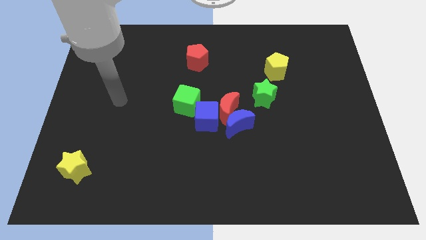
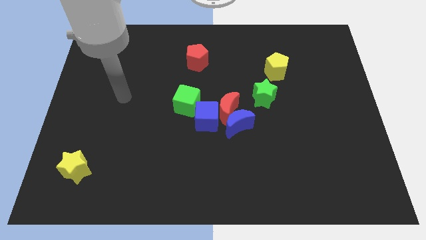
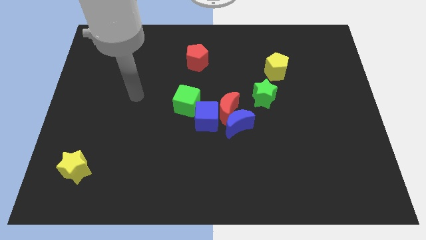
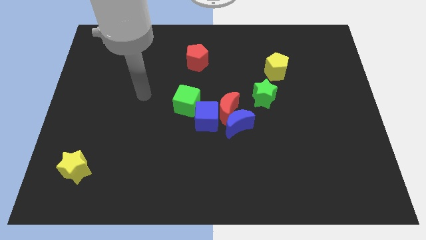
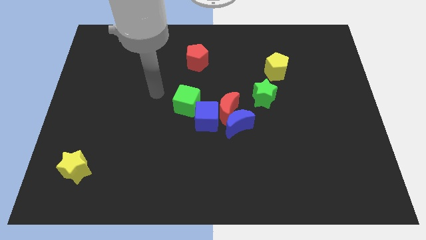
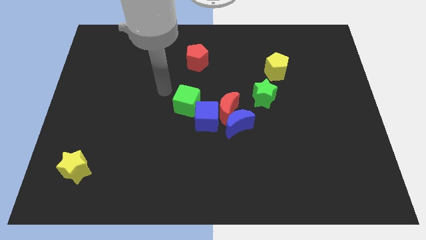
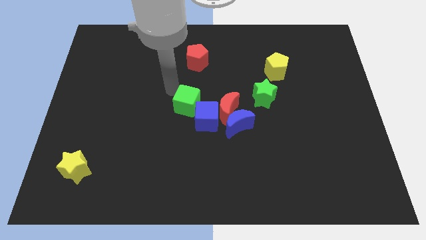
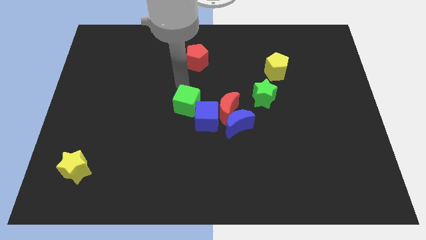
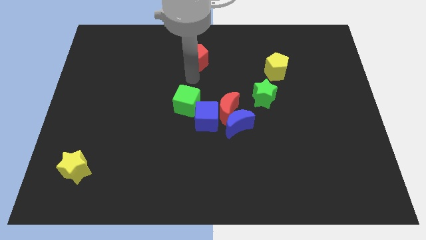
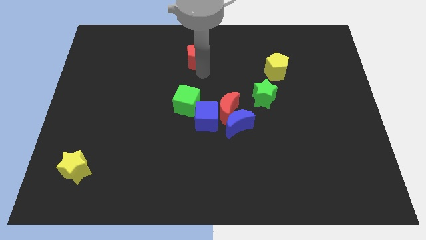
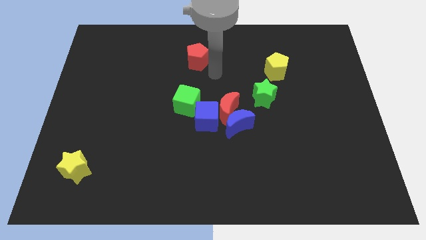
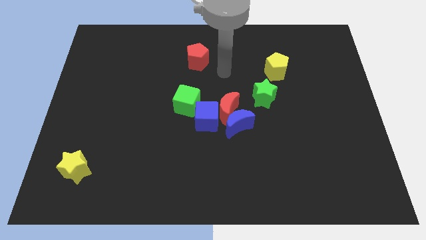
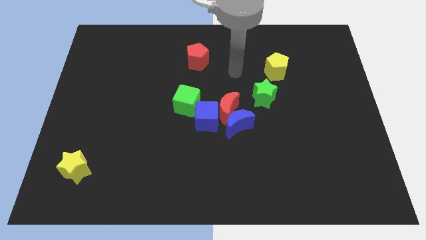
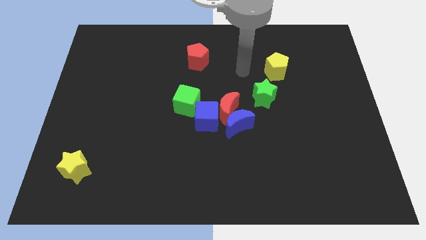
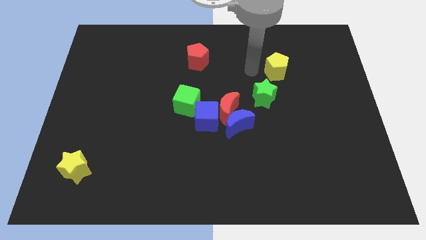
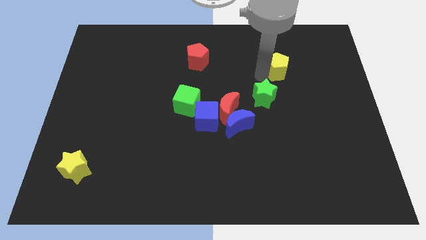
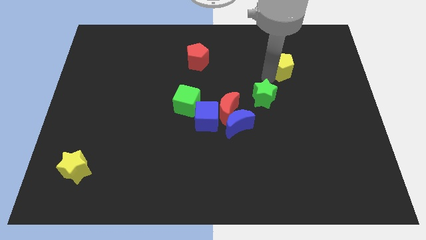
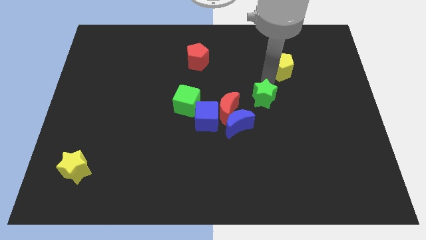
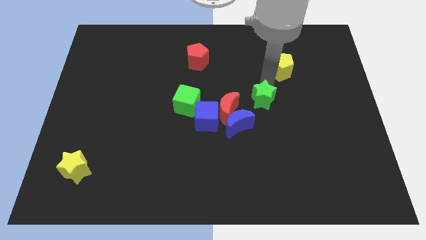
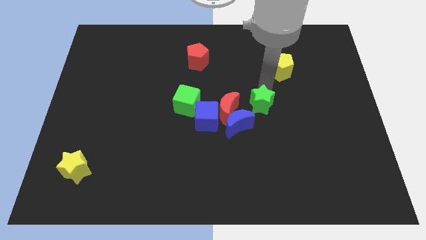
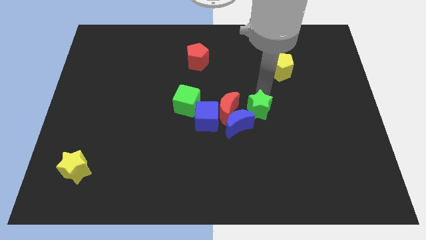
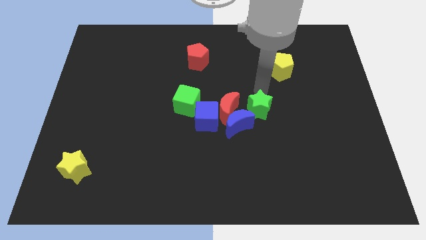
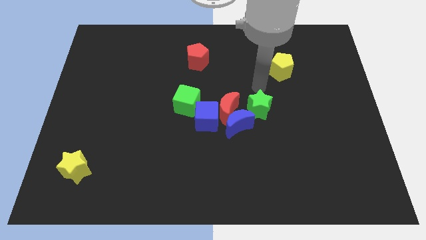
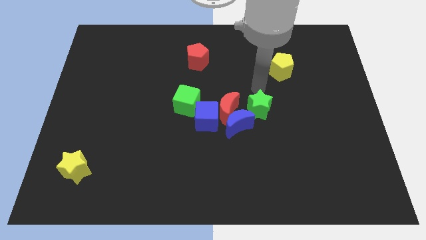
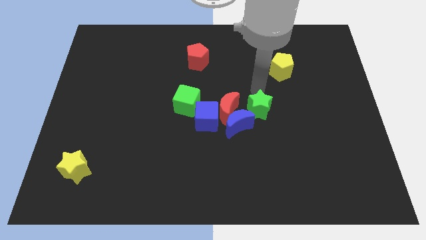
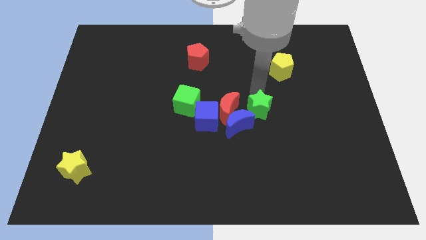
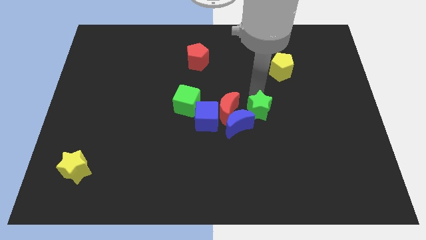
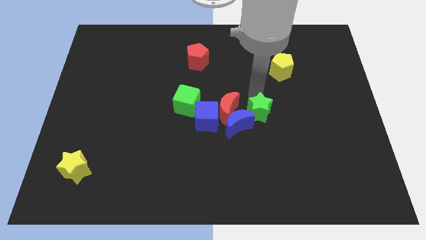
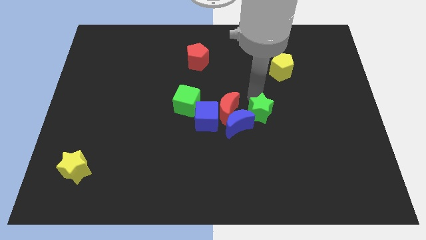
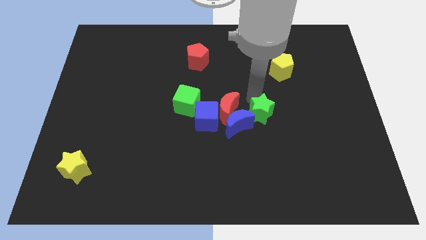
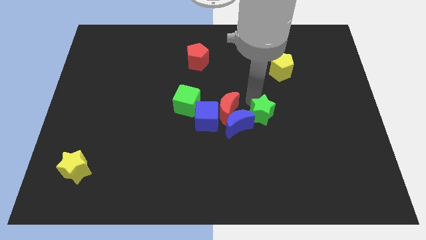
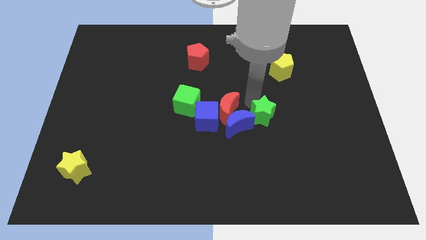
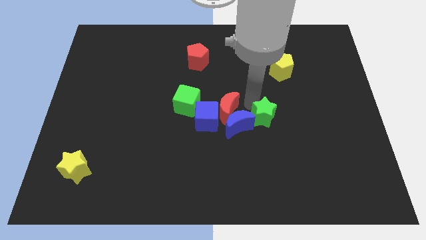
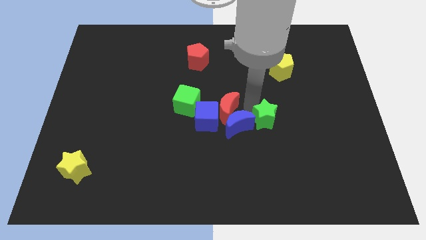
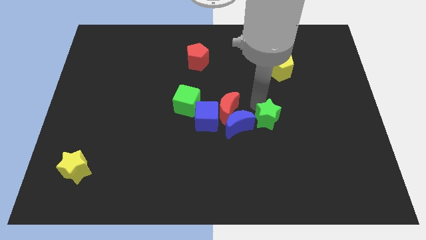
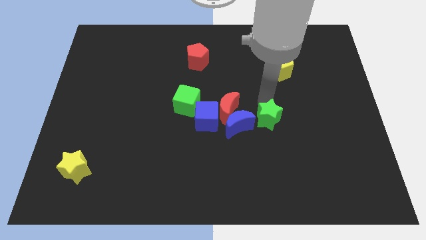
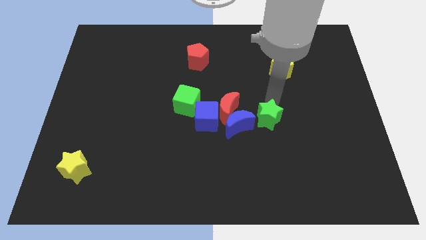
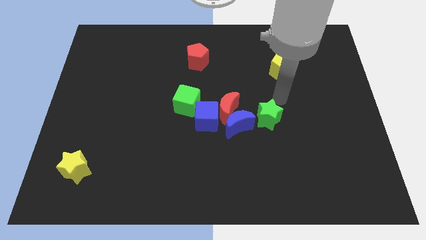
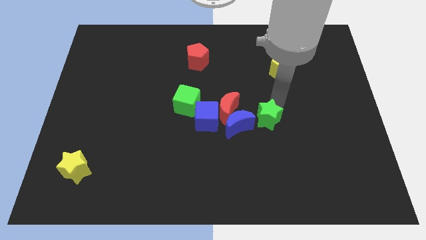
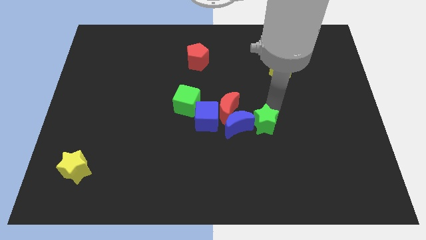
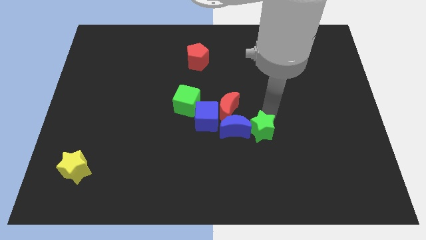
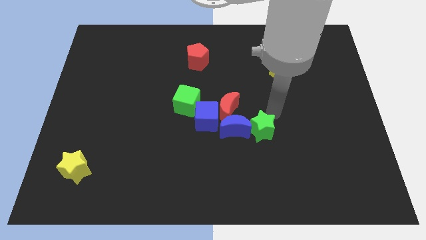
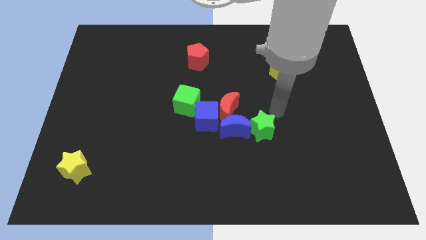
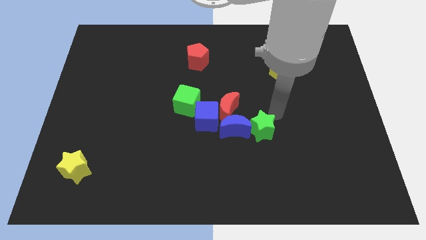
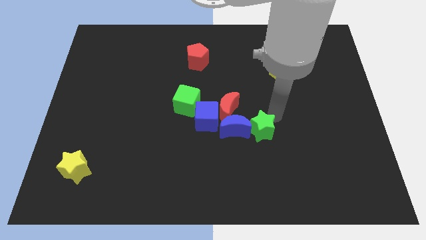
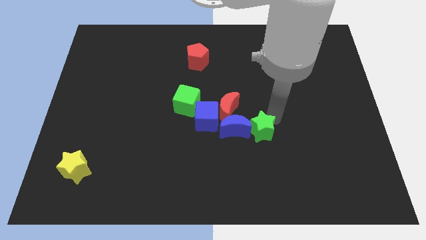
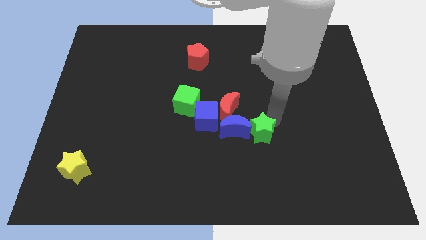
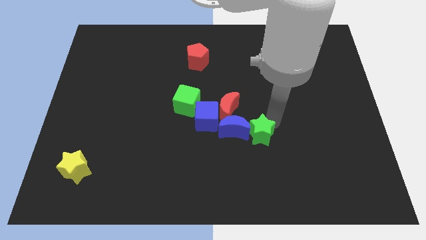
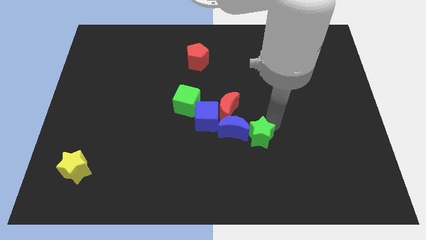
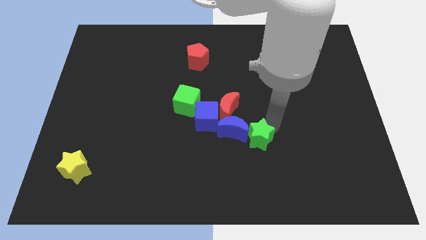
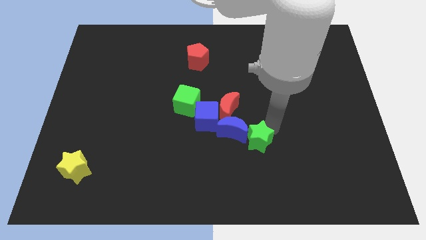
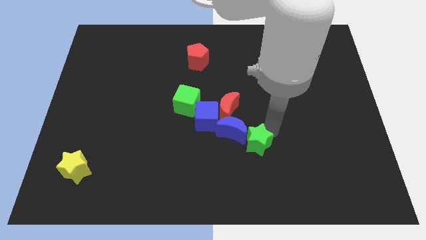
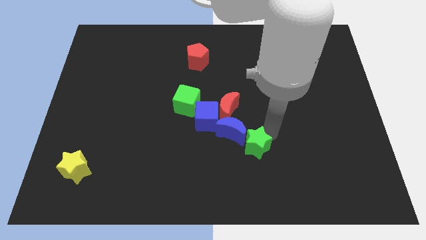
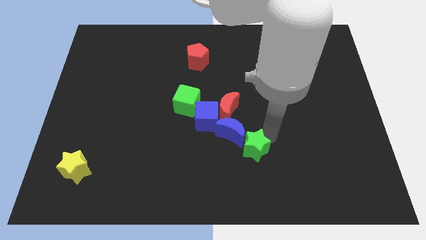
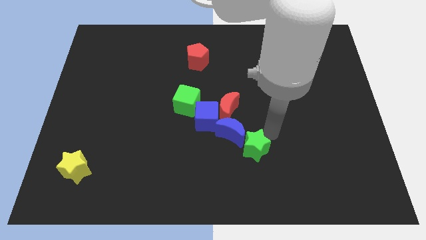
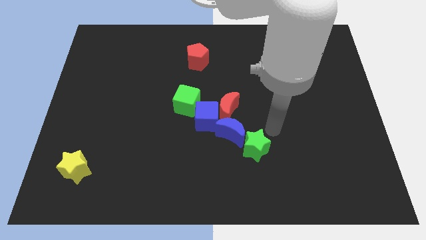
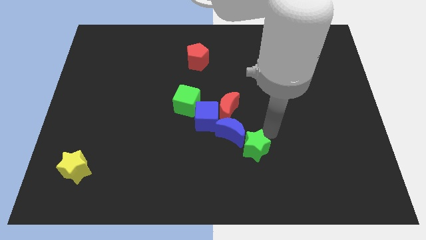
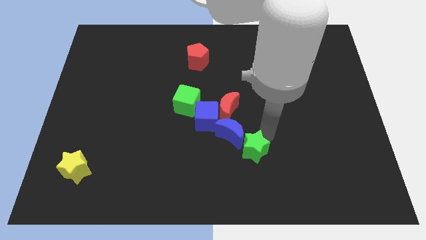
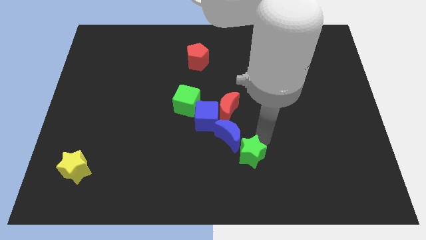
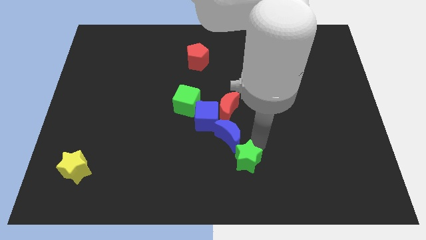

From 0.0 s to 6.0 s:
put the green star to the bottom side

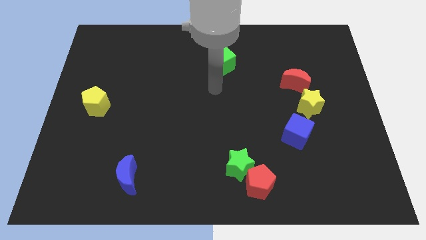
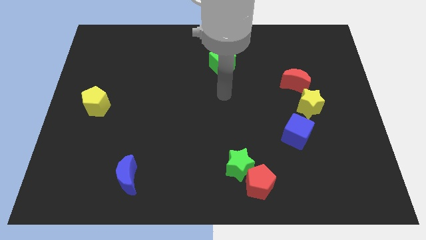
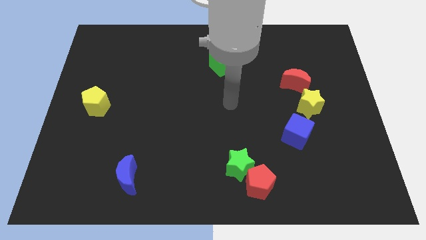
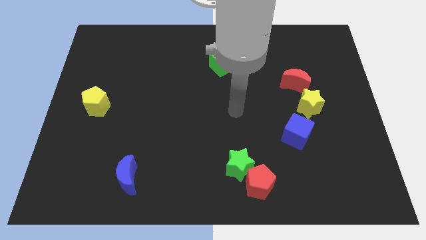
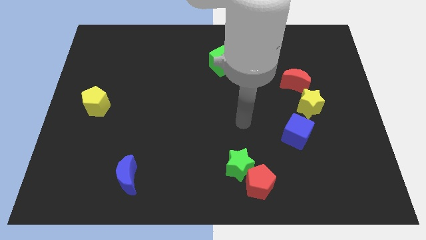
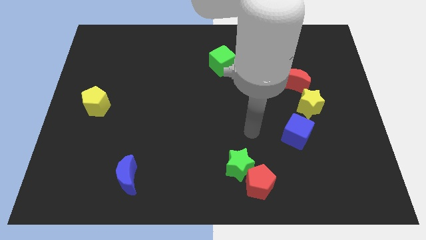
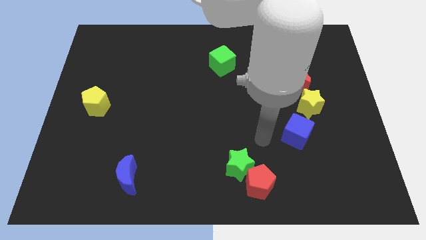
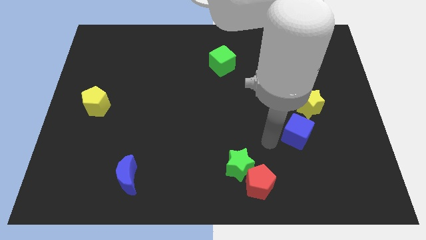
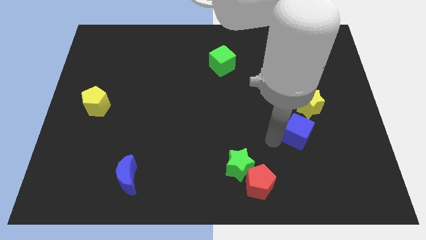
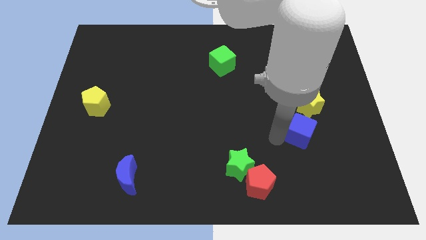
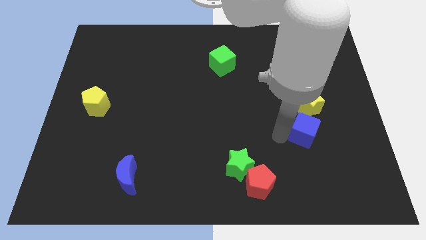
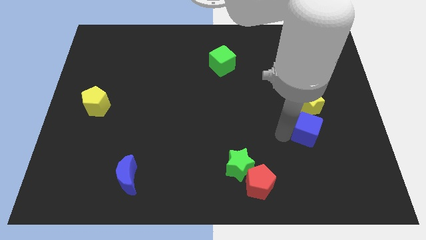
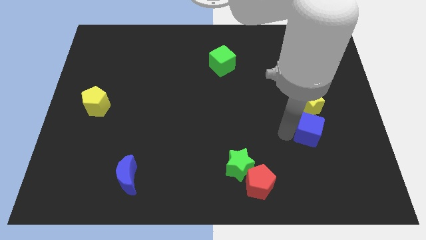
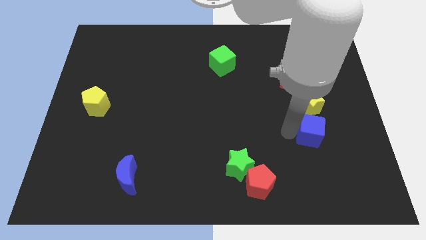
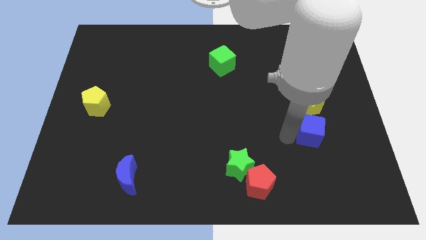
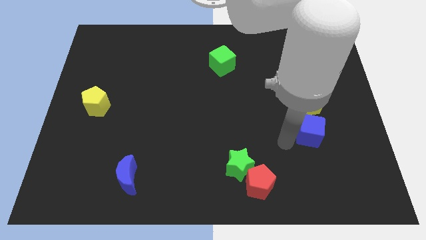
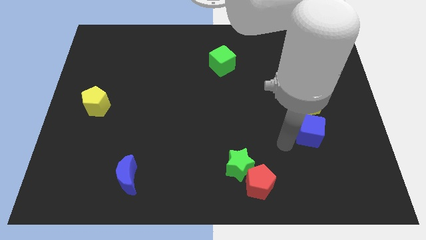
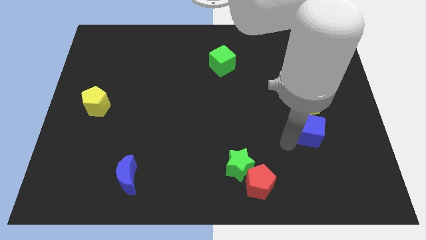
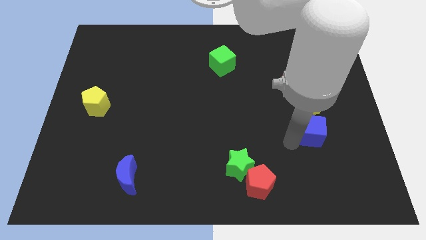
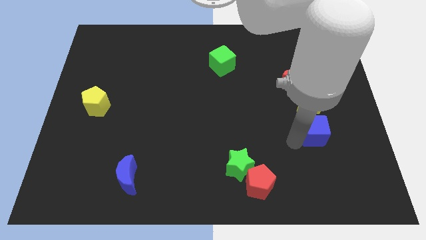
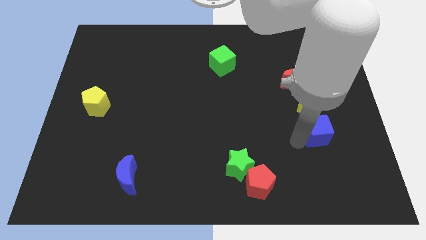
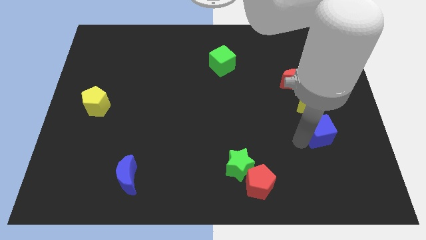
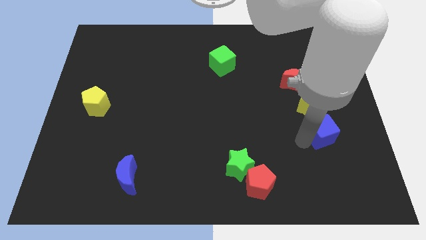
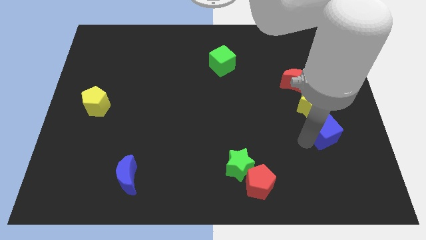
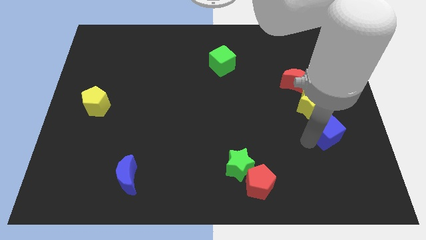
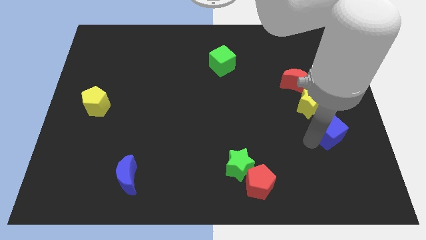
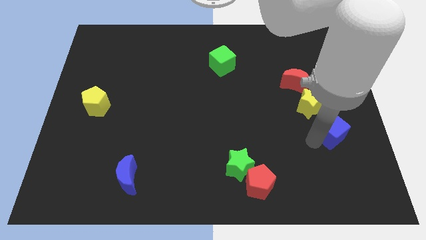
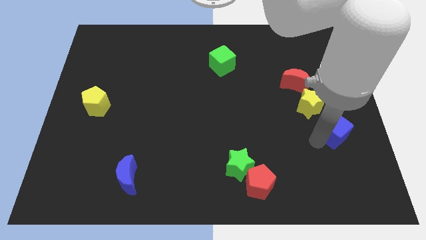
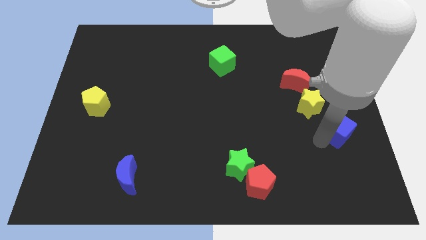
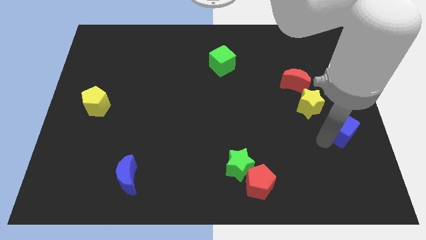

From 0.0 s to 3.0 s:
put the blue cube to the center right
